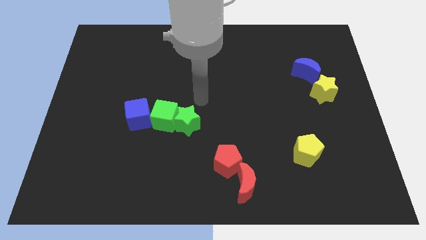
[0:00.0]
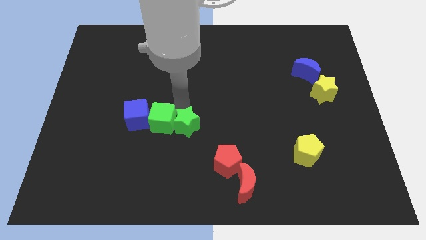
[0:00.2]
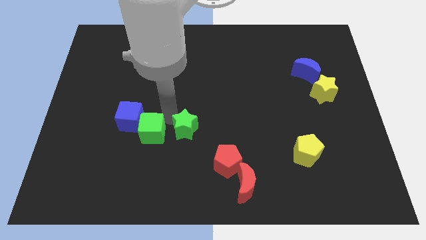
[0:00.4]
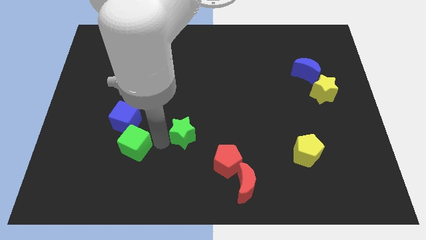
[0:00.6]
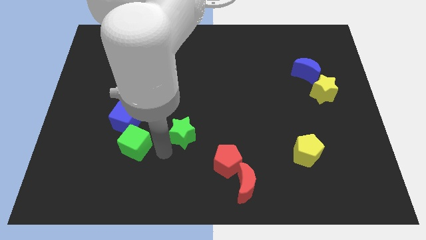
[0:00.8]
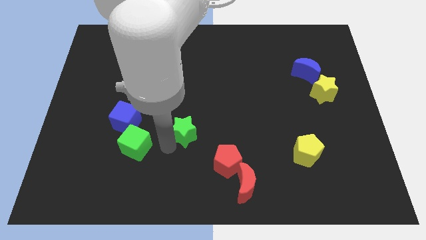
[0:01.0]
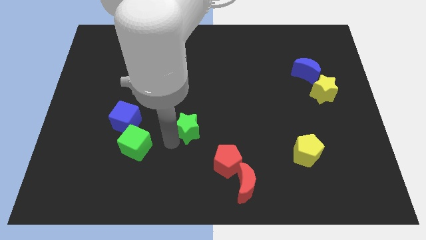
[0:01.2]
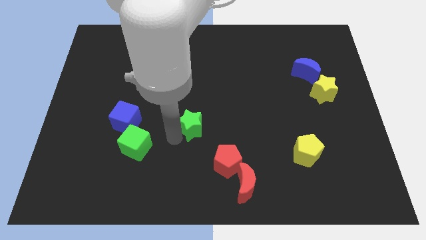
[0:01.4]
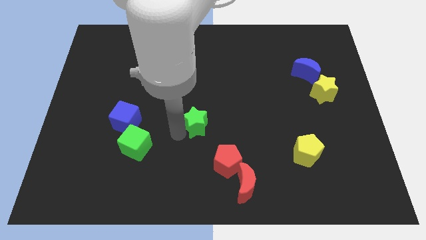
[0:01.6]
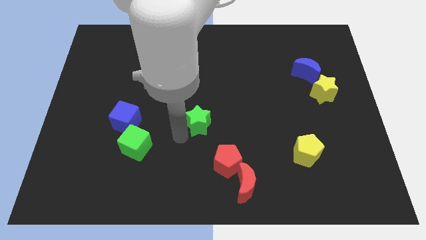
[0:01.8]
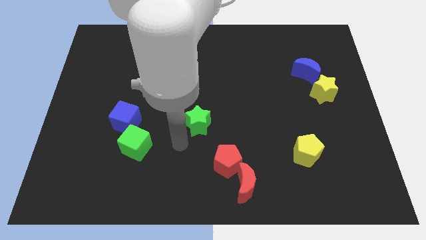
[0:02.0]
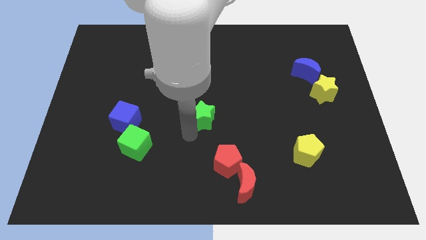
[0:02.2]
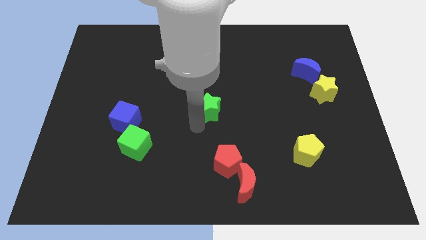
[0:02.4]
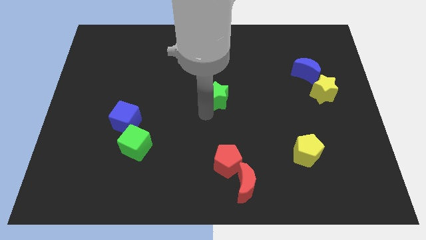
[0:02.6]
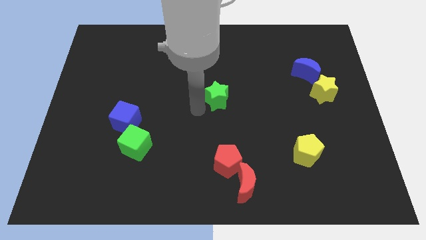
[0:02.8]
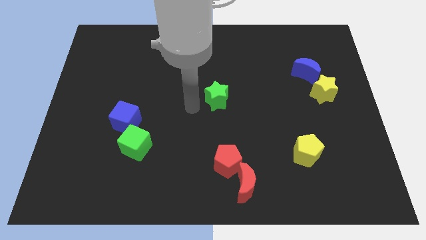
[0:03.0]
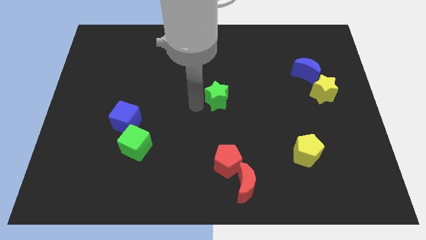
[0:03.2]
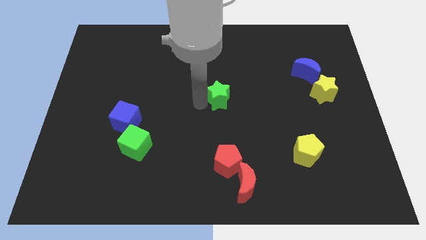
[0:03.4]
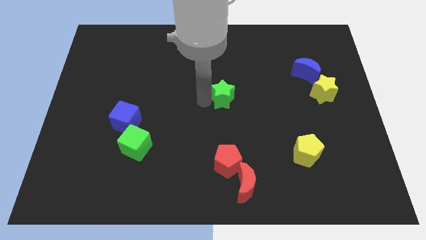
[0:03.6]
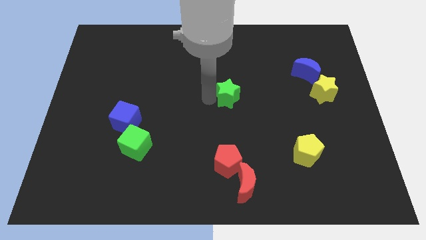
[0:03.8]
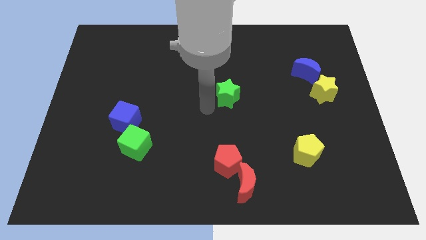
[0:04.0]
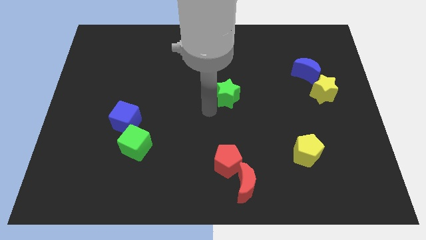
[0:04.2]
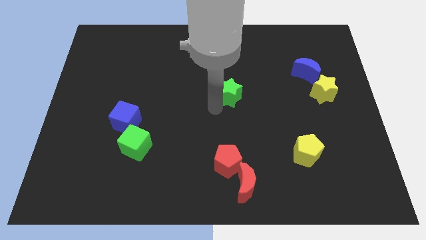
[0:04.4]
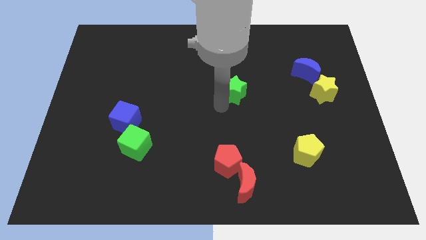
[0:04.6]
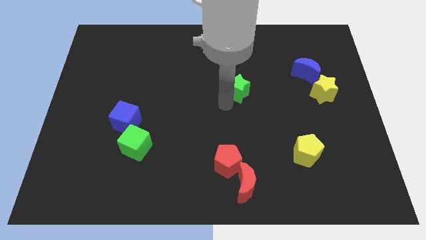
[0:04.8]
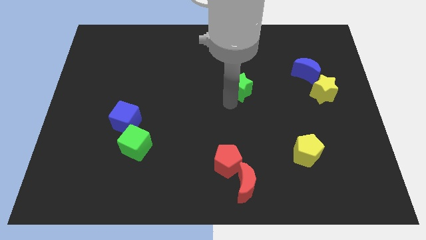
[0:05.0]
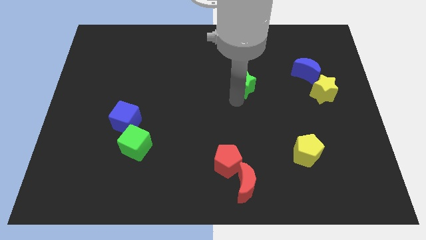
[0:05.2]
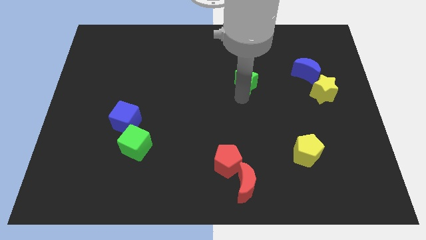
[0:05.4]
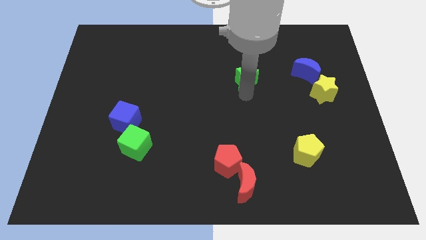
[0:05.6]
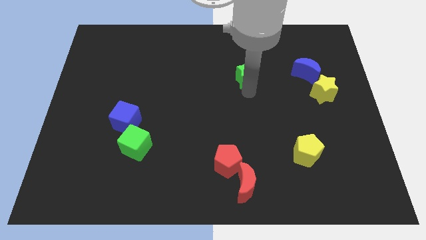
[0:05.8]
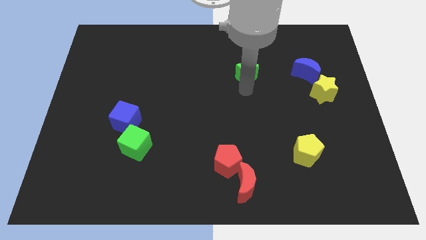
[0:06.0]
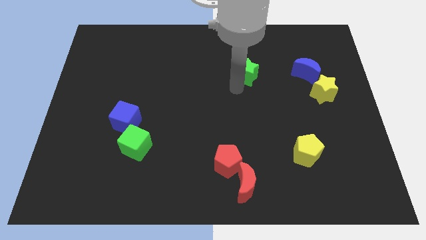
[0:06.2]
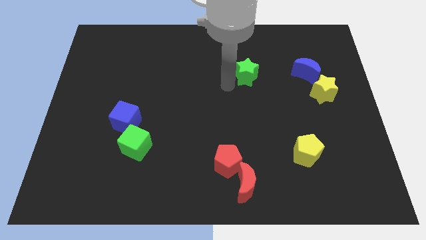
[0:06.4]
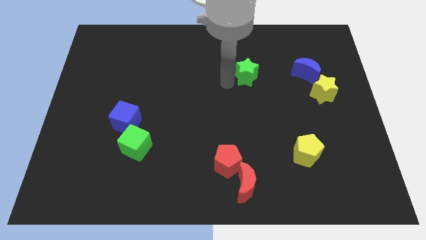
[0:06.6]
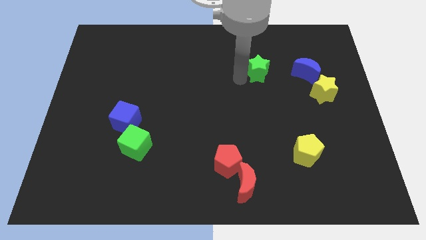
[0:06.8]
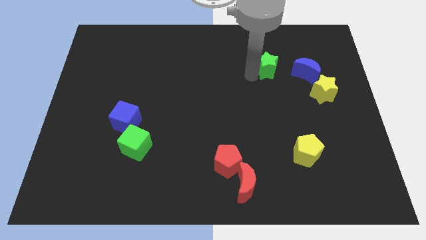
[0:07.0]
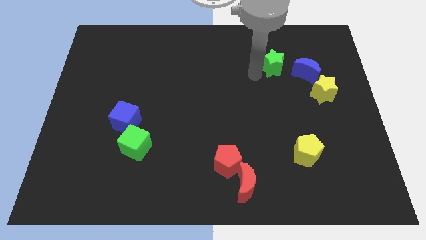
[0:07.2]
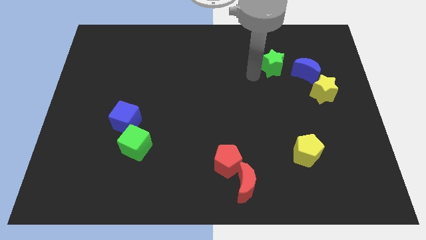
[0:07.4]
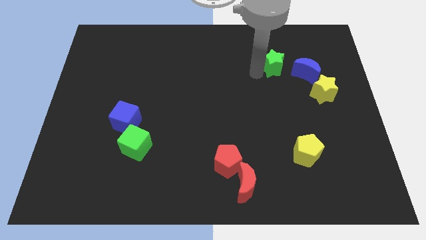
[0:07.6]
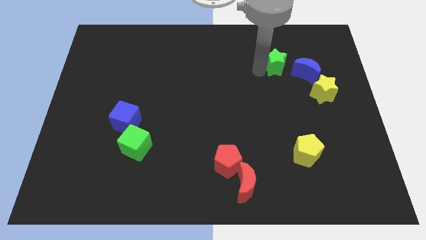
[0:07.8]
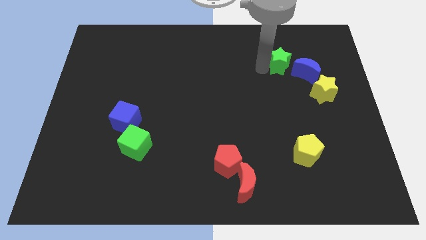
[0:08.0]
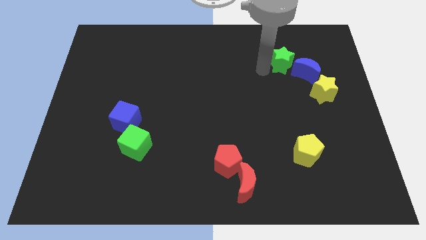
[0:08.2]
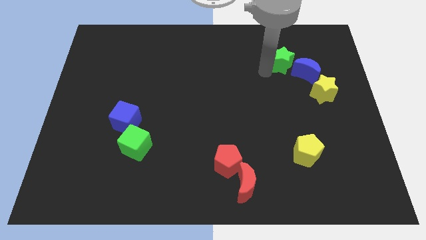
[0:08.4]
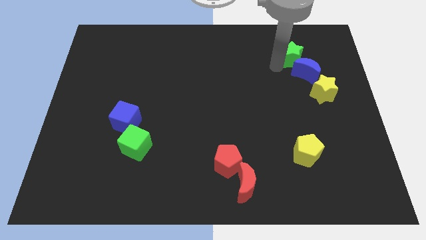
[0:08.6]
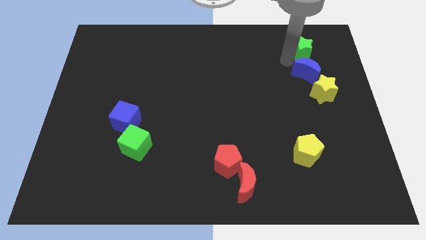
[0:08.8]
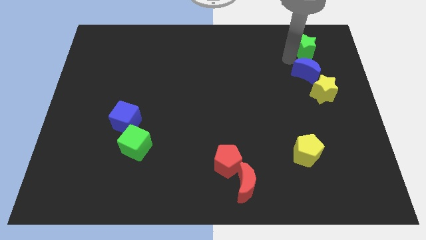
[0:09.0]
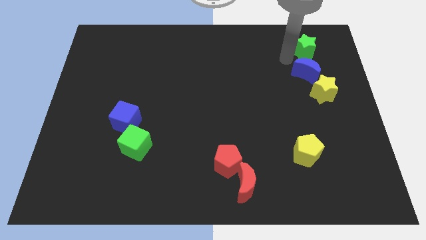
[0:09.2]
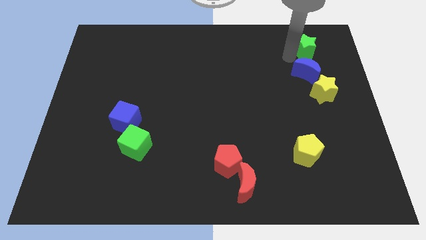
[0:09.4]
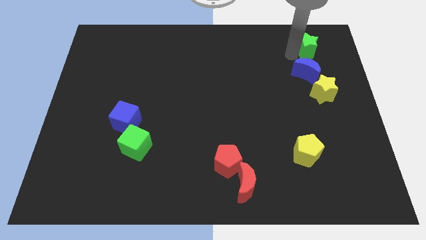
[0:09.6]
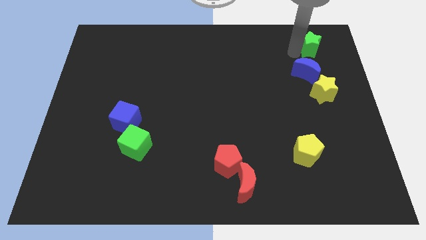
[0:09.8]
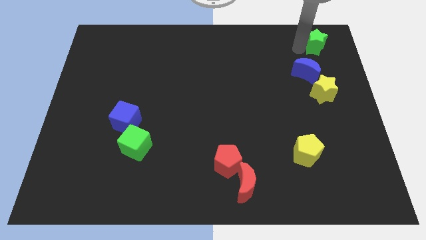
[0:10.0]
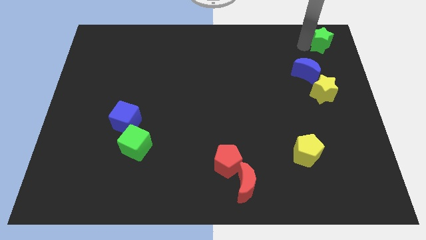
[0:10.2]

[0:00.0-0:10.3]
push the green star to the upper right corner
